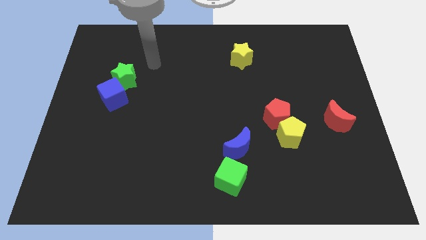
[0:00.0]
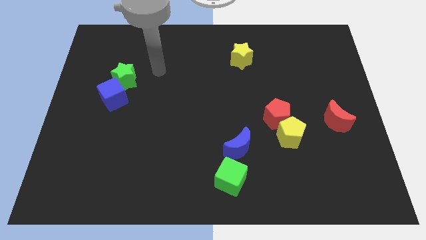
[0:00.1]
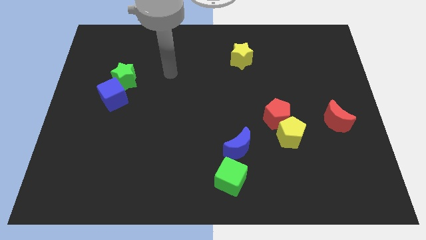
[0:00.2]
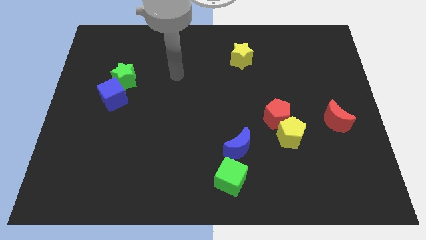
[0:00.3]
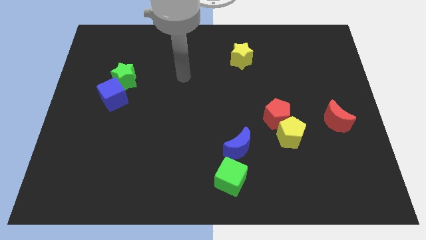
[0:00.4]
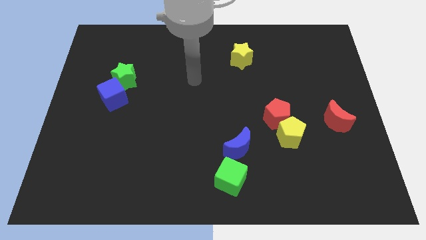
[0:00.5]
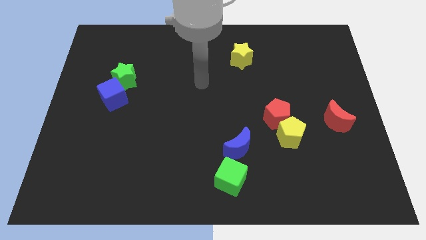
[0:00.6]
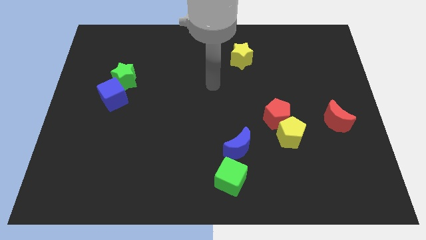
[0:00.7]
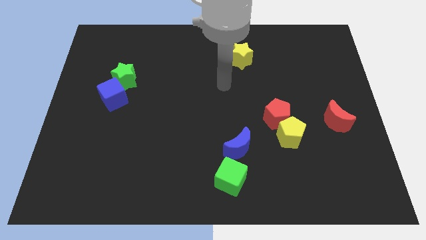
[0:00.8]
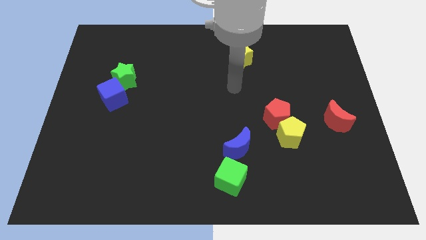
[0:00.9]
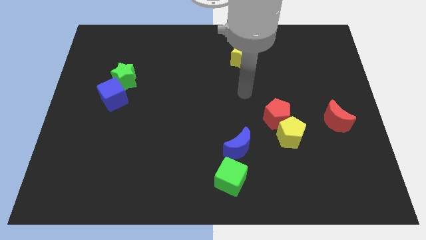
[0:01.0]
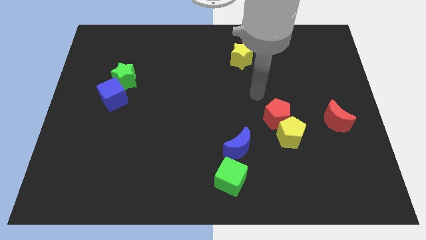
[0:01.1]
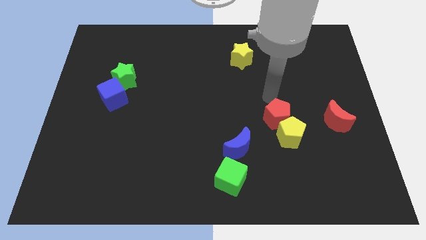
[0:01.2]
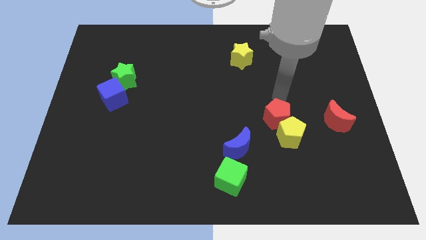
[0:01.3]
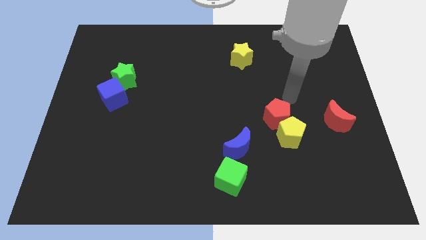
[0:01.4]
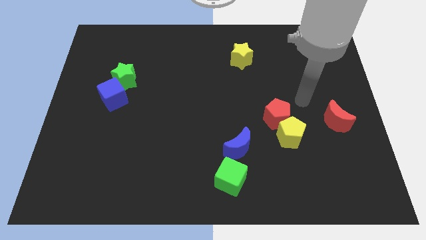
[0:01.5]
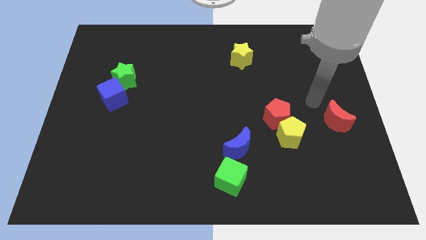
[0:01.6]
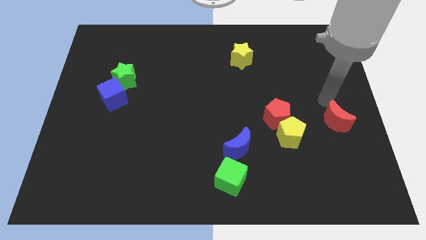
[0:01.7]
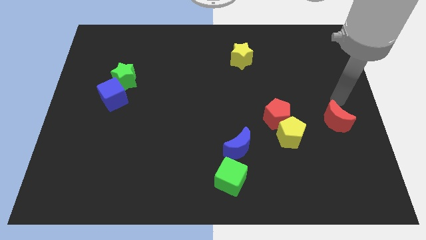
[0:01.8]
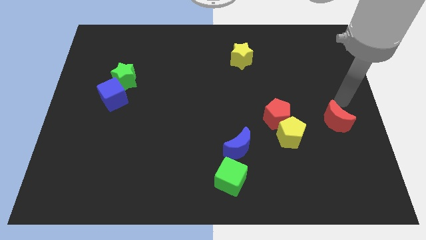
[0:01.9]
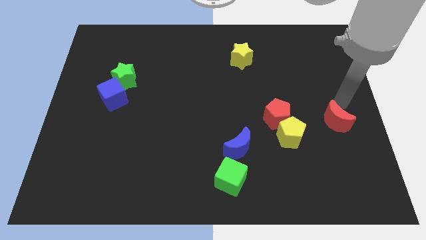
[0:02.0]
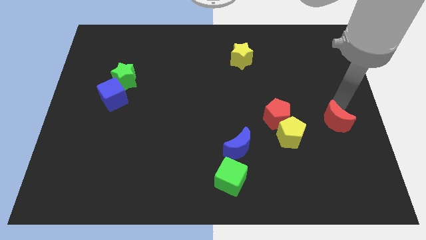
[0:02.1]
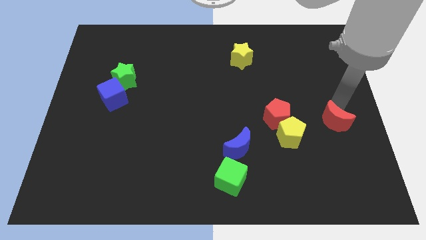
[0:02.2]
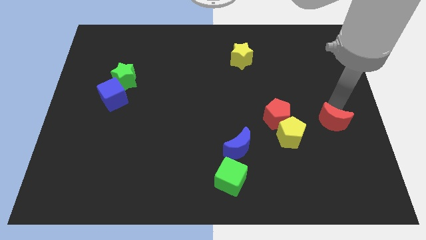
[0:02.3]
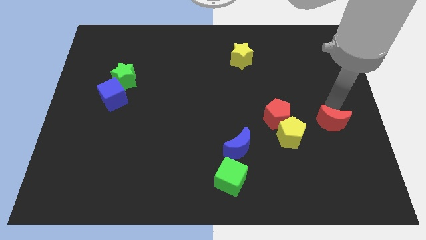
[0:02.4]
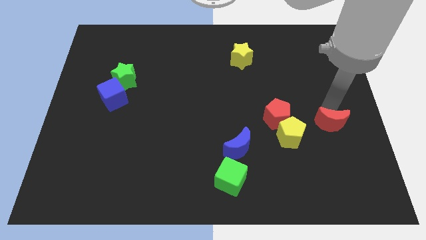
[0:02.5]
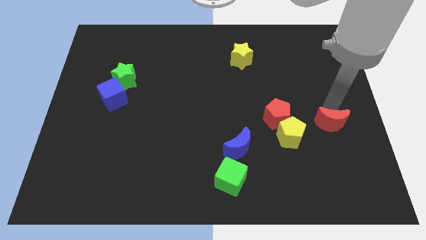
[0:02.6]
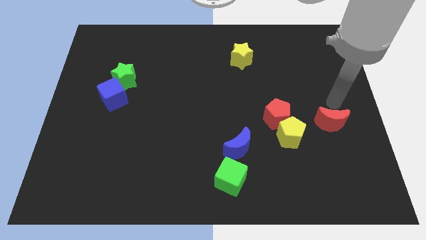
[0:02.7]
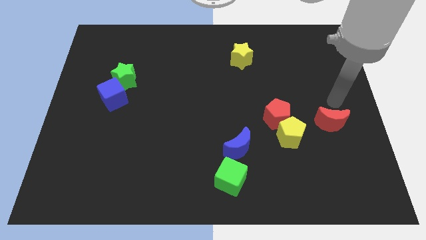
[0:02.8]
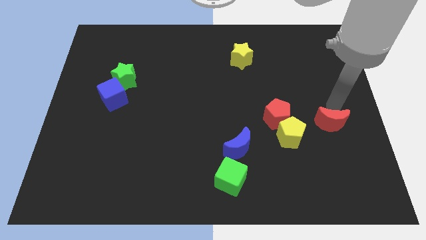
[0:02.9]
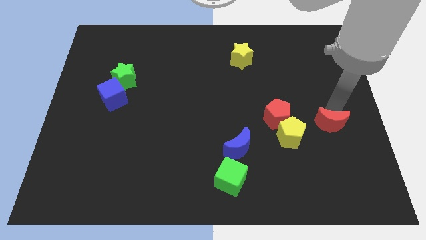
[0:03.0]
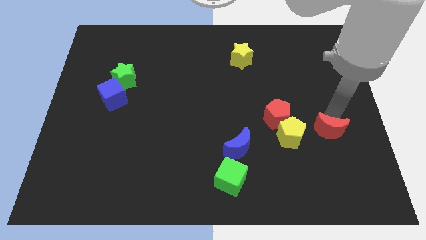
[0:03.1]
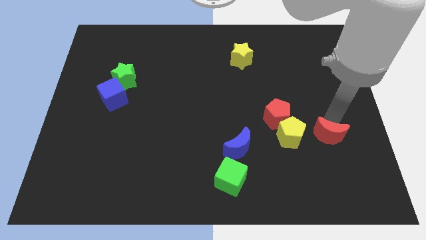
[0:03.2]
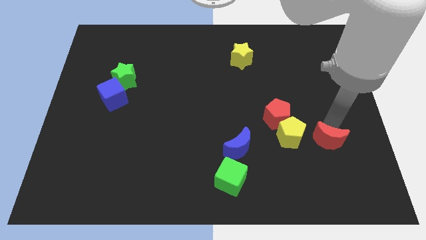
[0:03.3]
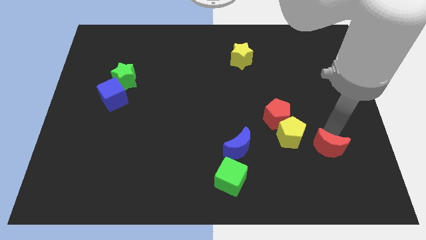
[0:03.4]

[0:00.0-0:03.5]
push the red moon somewhat downwards and left diagonally

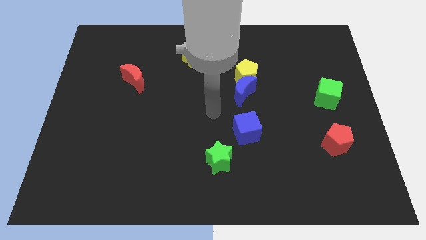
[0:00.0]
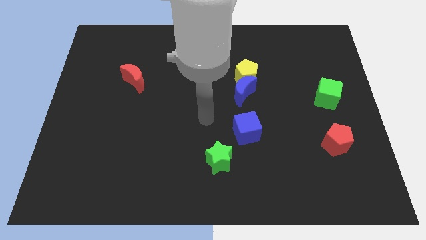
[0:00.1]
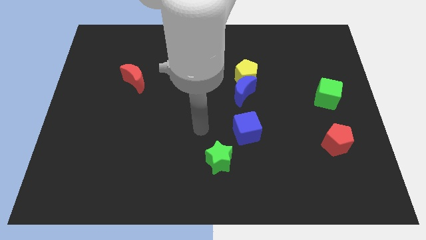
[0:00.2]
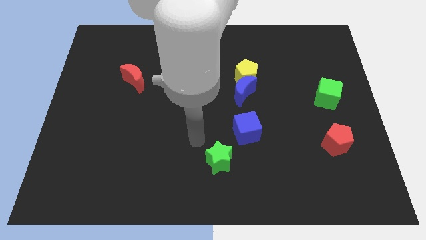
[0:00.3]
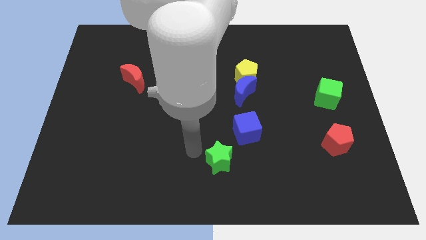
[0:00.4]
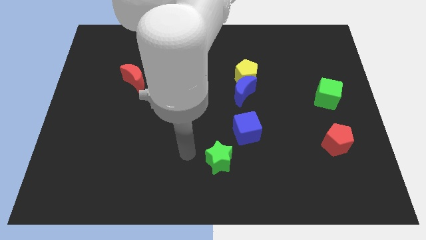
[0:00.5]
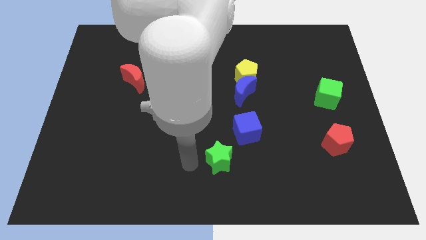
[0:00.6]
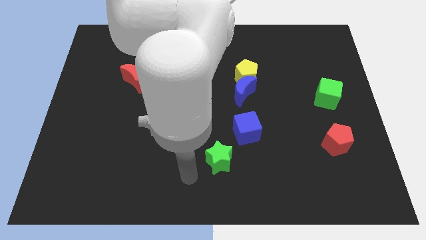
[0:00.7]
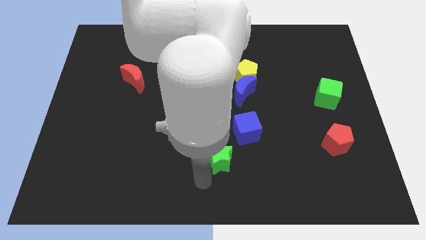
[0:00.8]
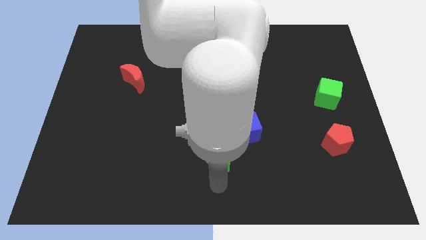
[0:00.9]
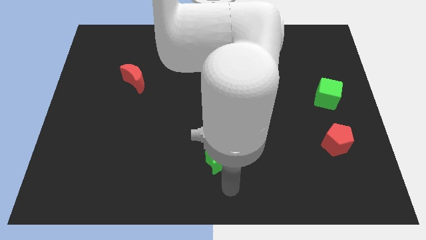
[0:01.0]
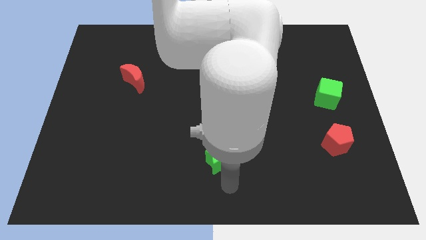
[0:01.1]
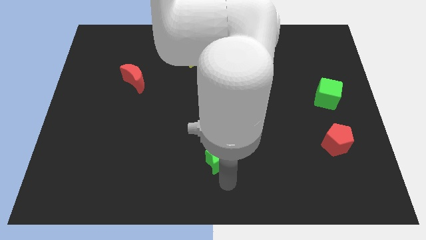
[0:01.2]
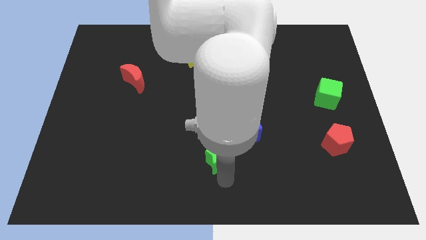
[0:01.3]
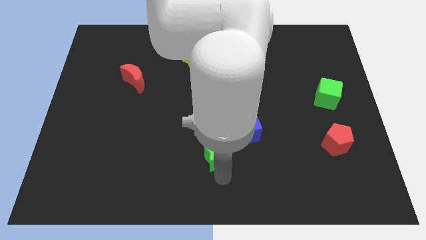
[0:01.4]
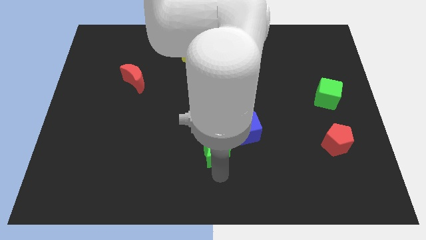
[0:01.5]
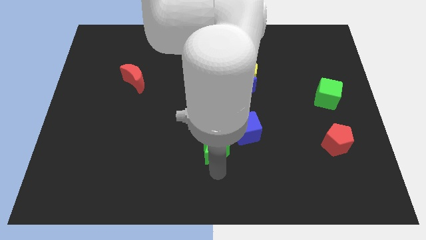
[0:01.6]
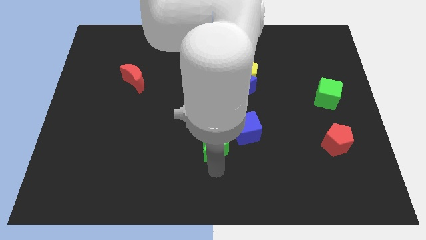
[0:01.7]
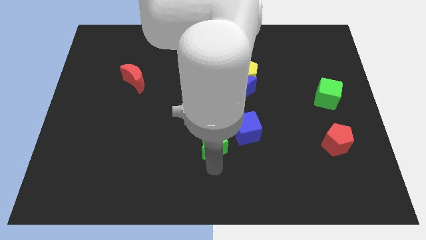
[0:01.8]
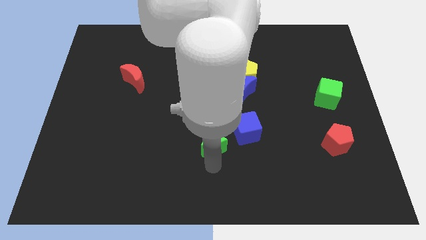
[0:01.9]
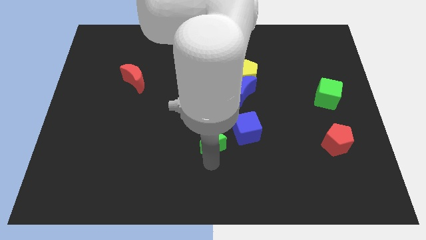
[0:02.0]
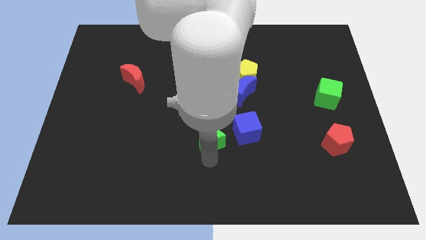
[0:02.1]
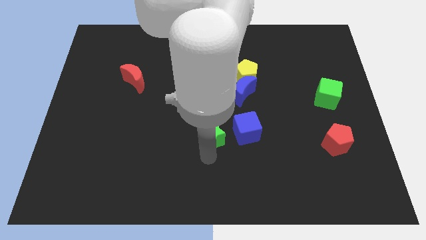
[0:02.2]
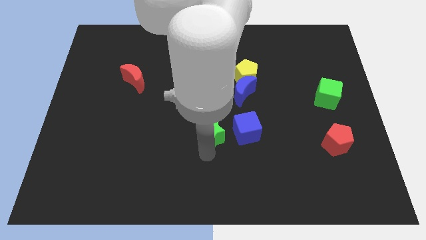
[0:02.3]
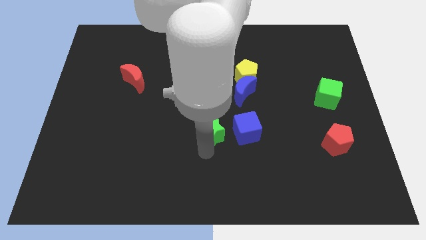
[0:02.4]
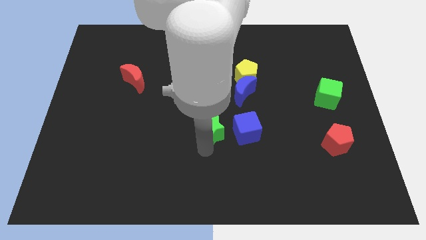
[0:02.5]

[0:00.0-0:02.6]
slide the green star a little bit upwards

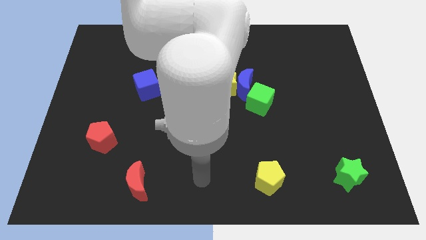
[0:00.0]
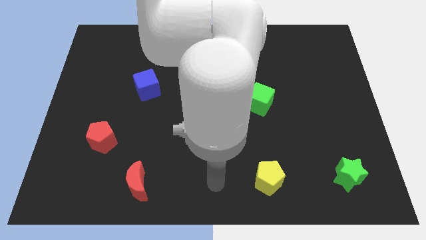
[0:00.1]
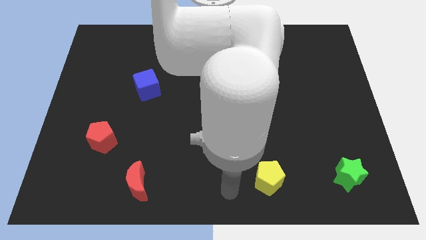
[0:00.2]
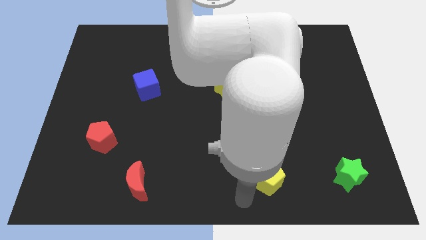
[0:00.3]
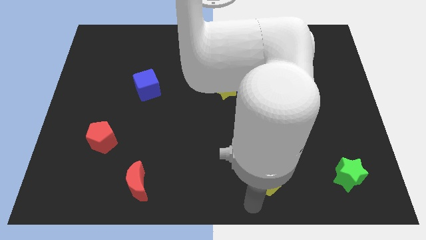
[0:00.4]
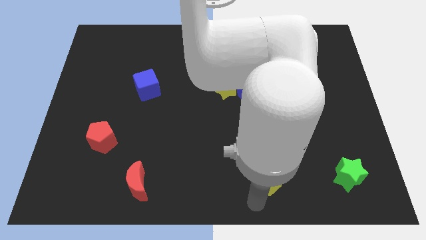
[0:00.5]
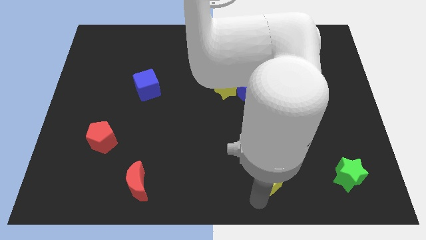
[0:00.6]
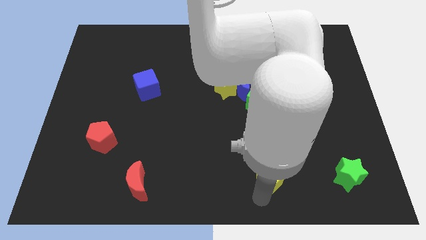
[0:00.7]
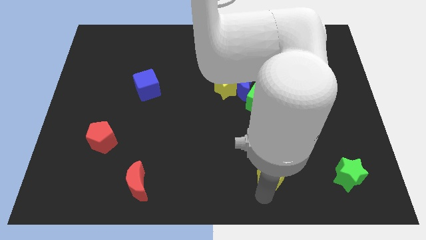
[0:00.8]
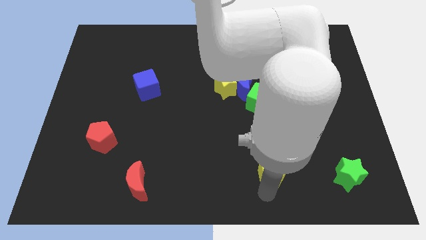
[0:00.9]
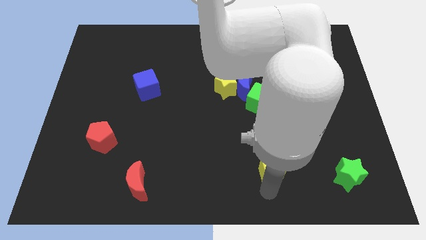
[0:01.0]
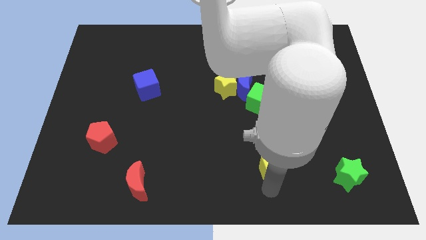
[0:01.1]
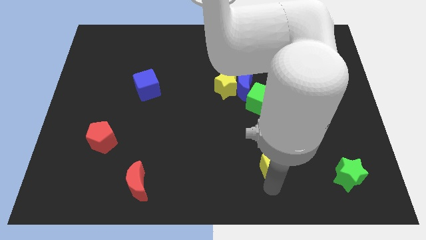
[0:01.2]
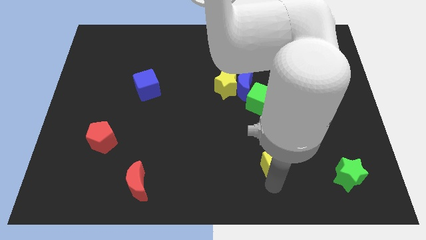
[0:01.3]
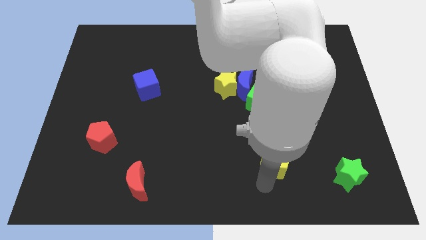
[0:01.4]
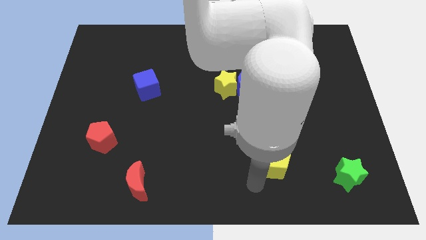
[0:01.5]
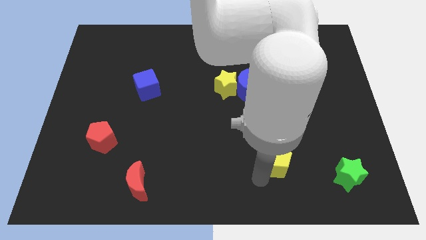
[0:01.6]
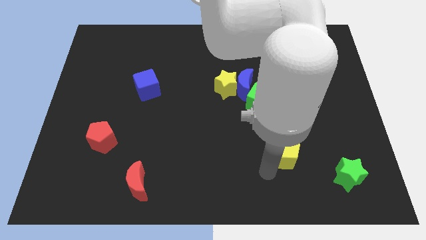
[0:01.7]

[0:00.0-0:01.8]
slide the yellow pentagon upwards and then to the right somewhat

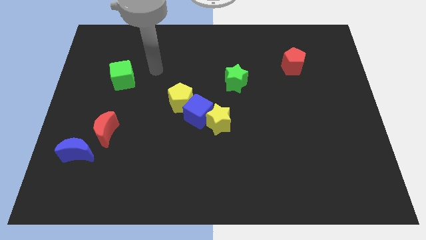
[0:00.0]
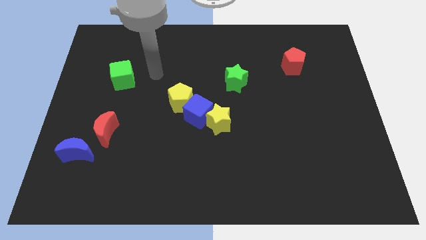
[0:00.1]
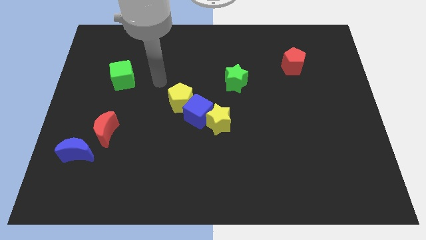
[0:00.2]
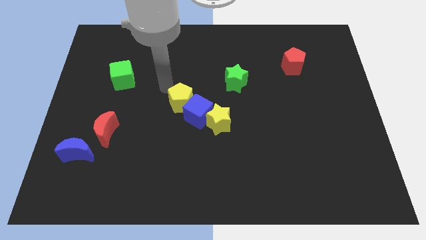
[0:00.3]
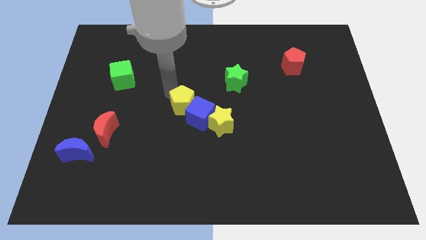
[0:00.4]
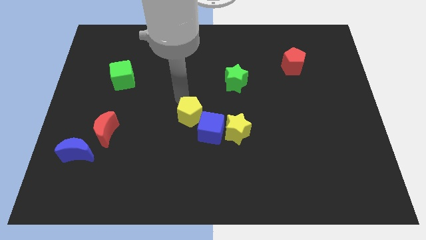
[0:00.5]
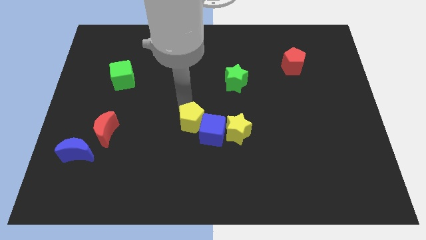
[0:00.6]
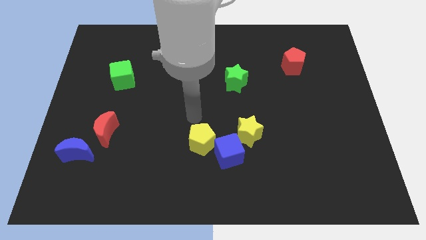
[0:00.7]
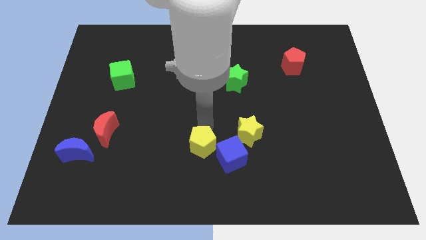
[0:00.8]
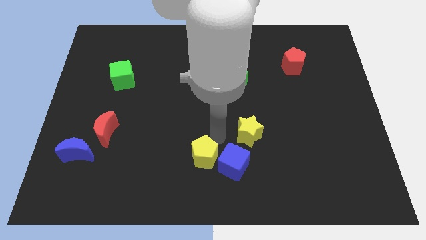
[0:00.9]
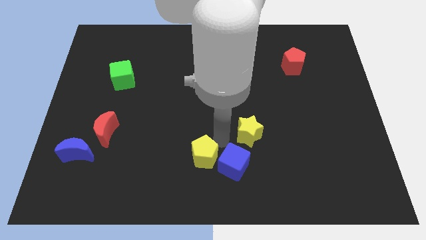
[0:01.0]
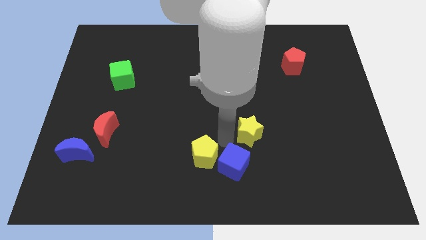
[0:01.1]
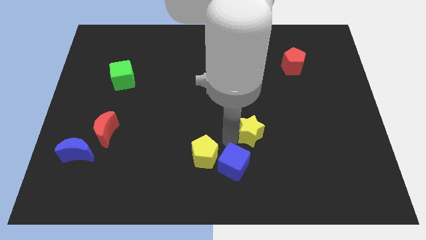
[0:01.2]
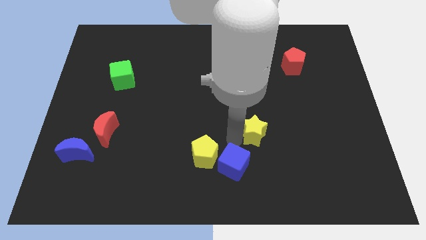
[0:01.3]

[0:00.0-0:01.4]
slightly push the yellow star to the right
